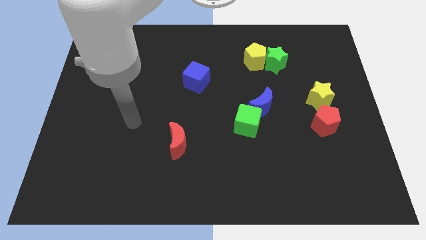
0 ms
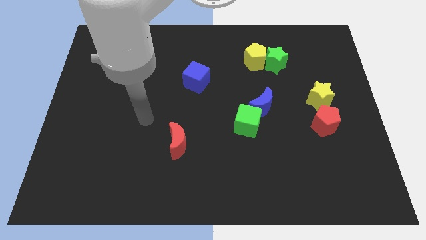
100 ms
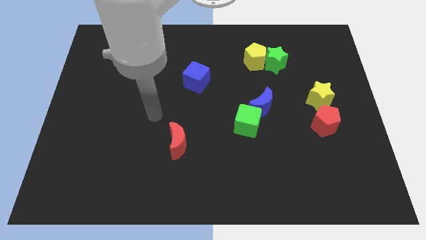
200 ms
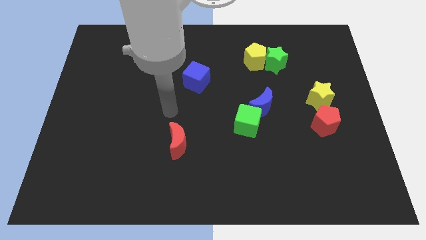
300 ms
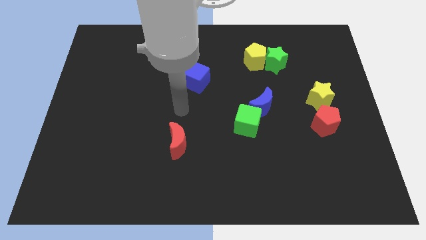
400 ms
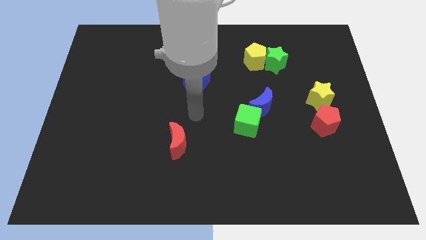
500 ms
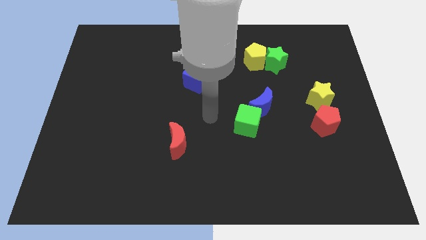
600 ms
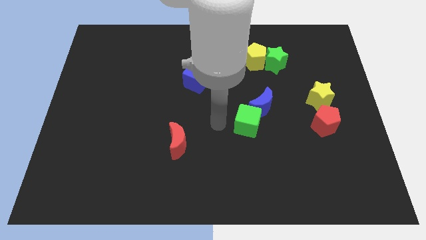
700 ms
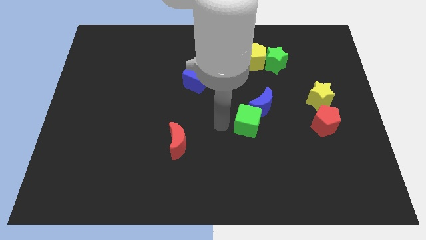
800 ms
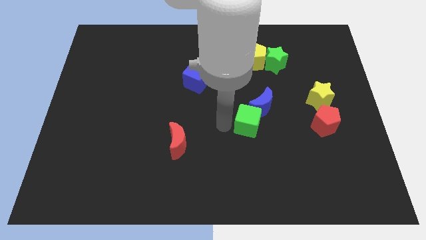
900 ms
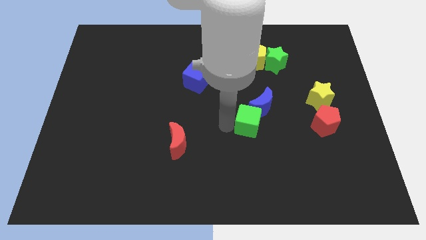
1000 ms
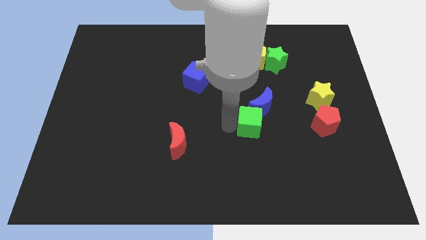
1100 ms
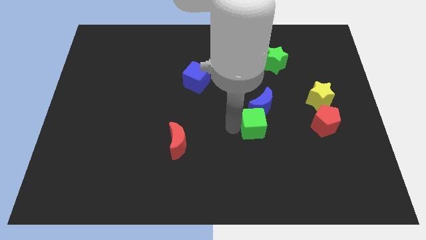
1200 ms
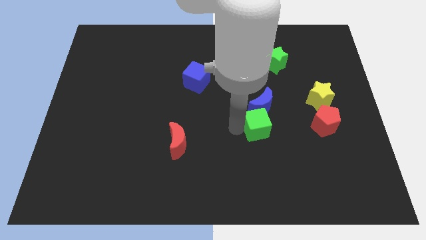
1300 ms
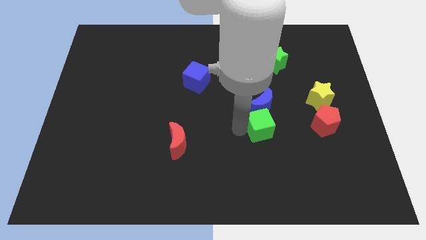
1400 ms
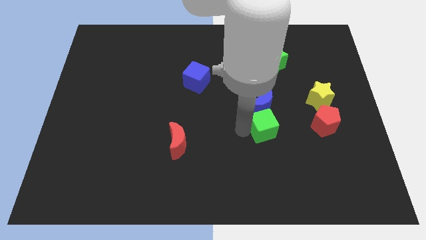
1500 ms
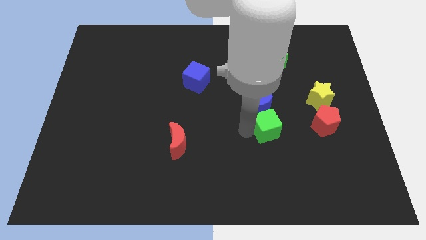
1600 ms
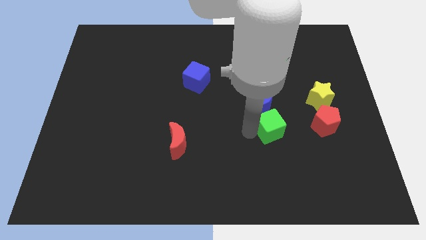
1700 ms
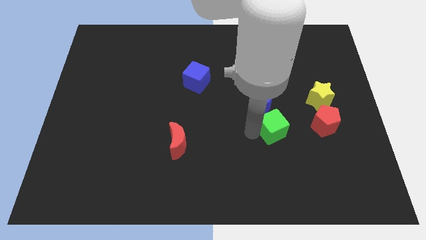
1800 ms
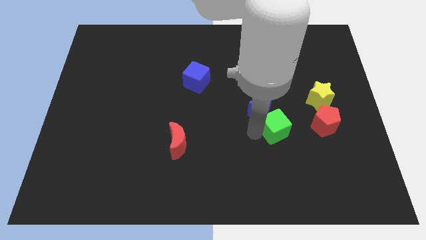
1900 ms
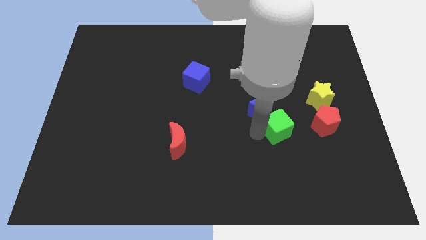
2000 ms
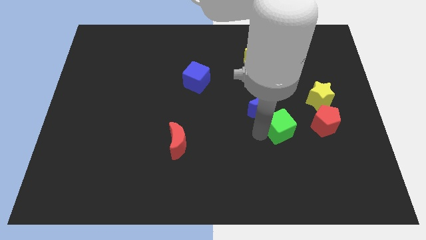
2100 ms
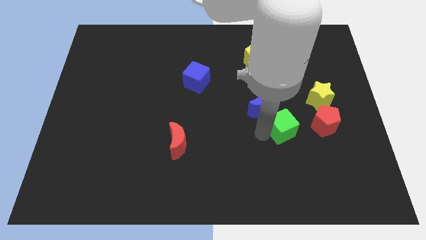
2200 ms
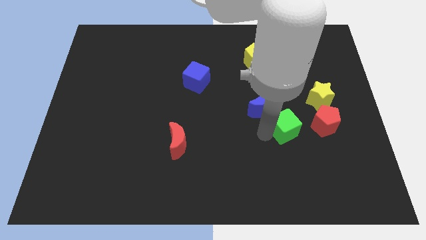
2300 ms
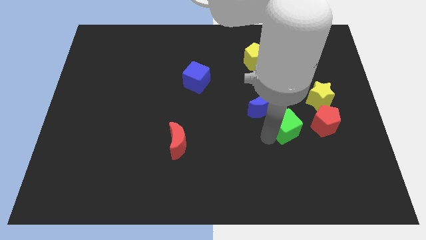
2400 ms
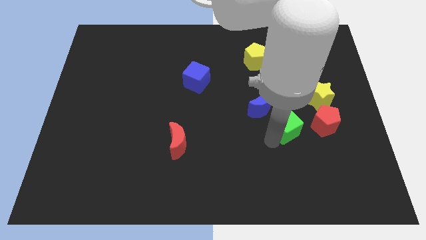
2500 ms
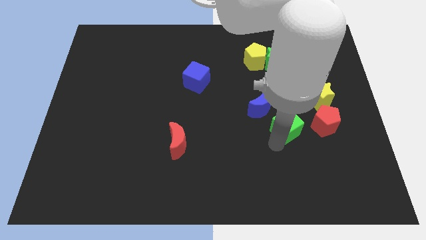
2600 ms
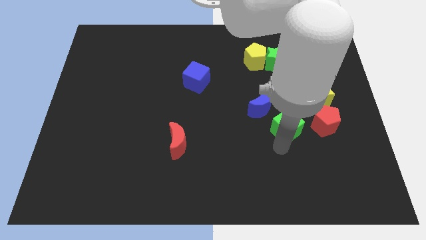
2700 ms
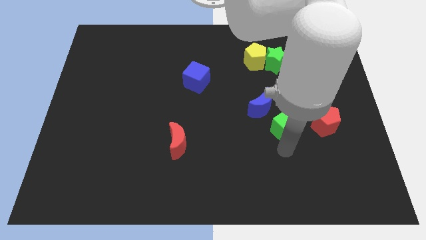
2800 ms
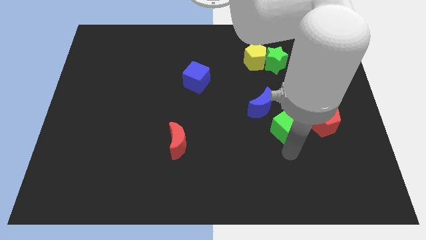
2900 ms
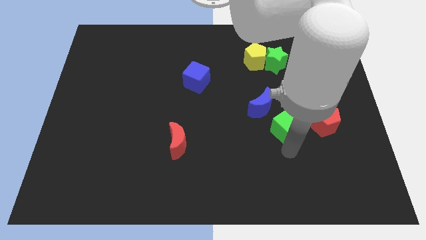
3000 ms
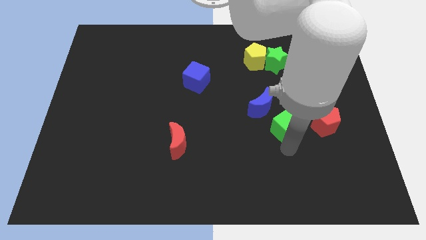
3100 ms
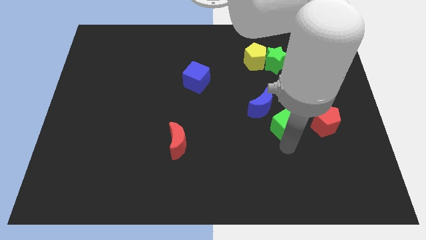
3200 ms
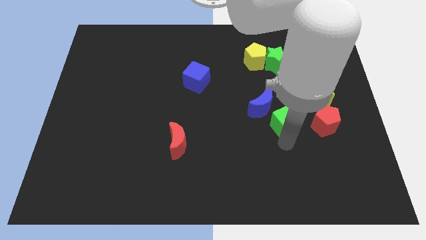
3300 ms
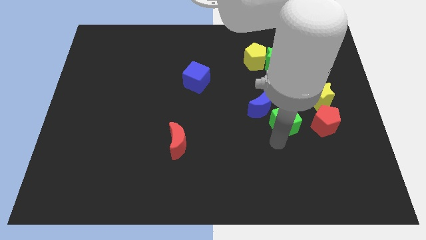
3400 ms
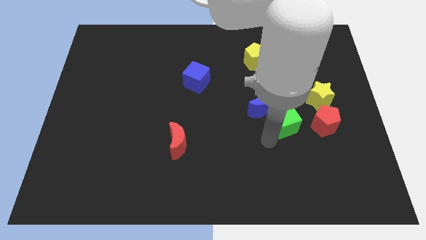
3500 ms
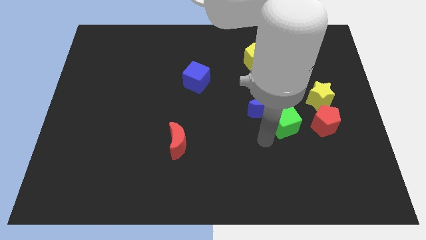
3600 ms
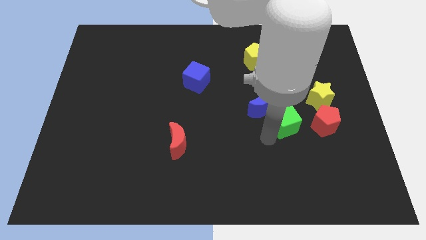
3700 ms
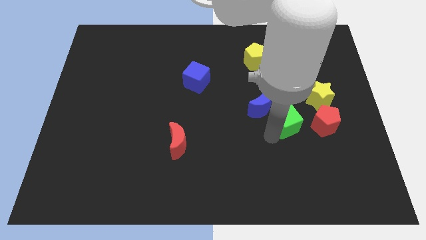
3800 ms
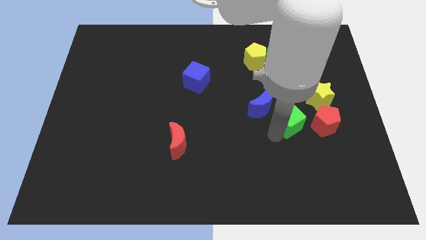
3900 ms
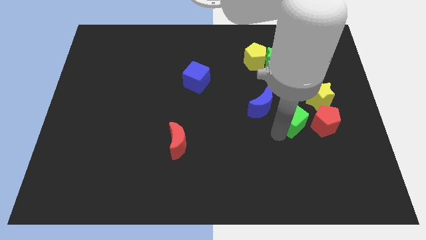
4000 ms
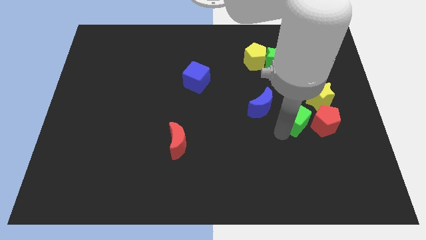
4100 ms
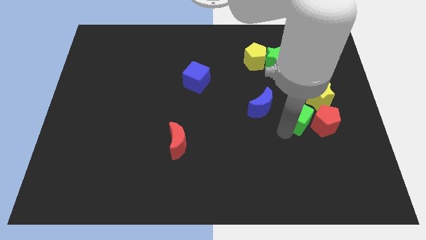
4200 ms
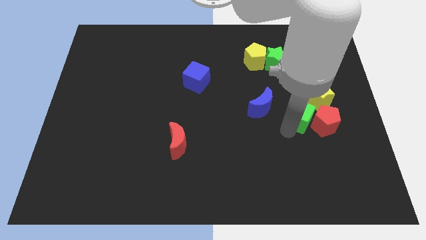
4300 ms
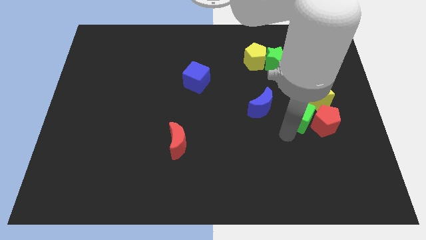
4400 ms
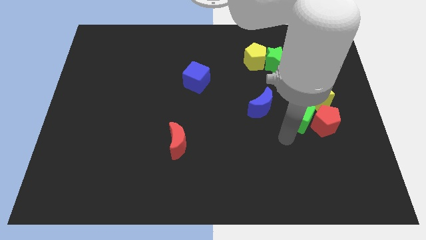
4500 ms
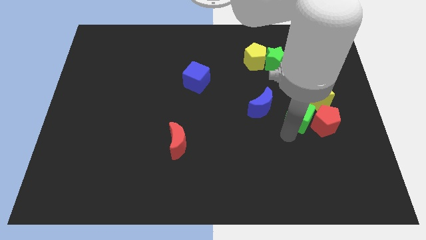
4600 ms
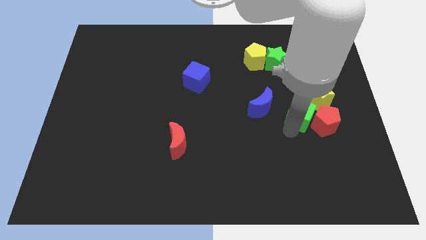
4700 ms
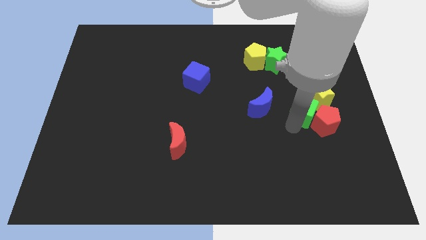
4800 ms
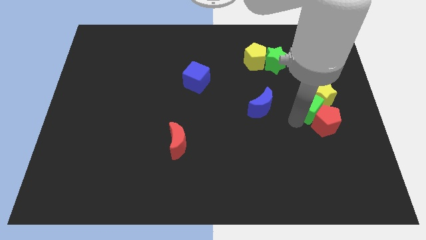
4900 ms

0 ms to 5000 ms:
slide the green cube close to the yellow star

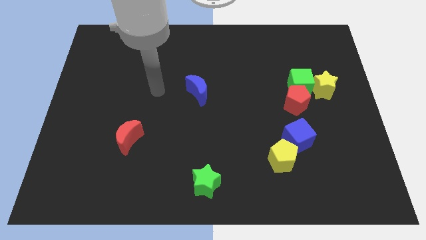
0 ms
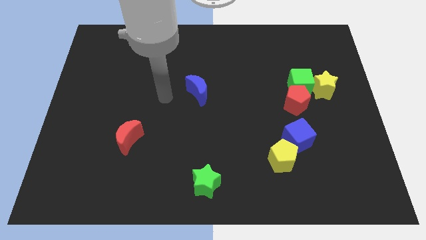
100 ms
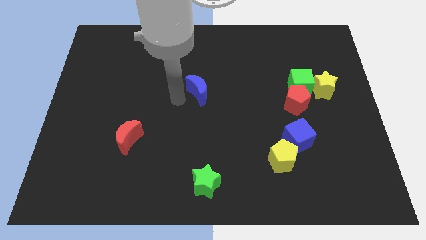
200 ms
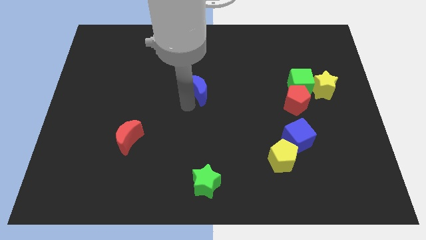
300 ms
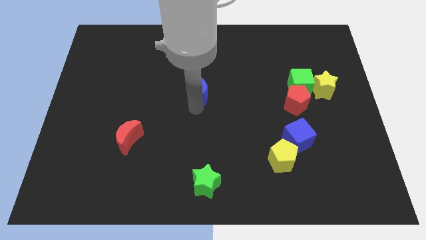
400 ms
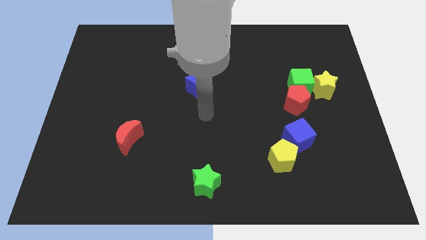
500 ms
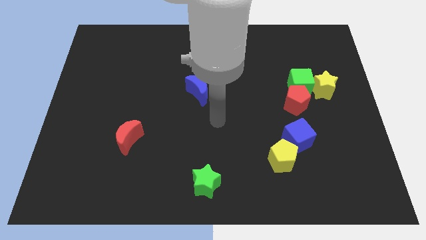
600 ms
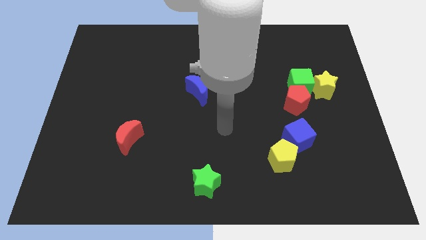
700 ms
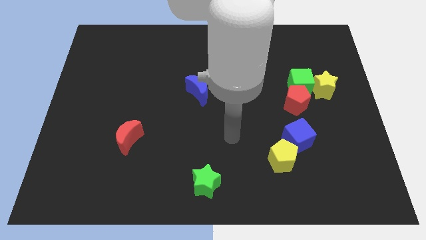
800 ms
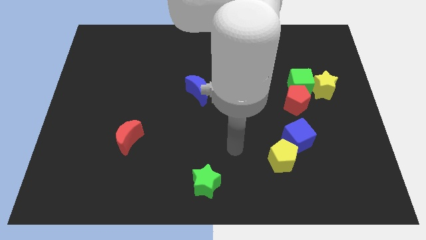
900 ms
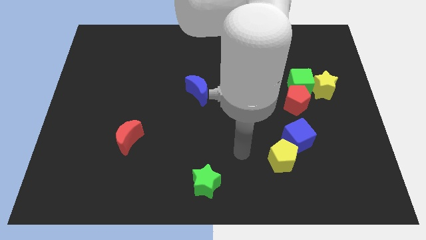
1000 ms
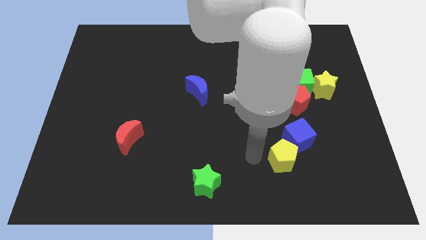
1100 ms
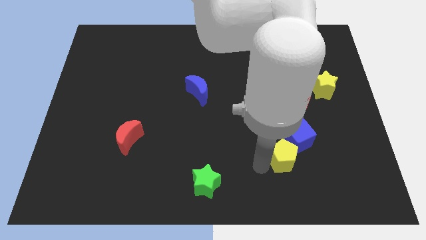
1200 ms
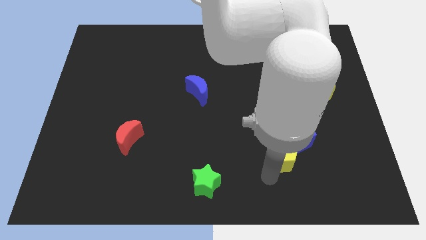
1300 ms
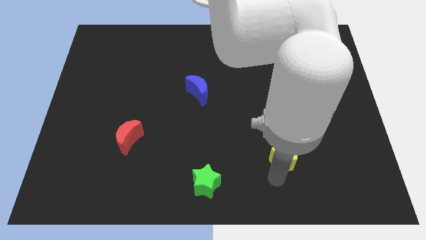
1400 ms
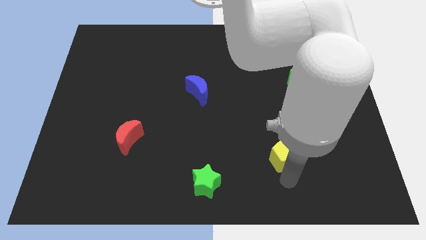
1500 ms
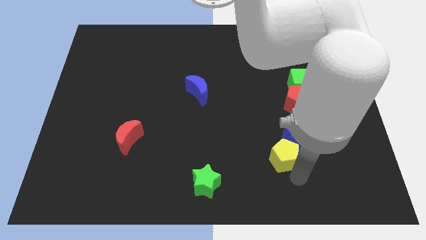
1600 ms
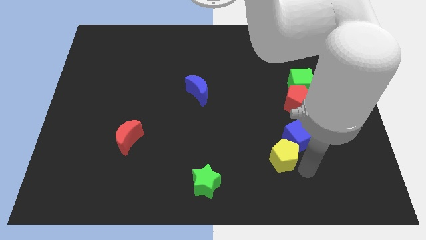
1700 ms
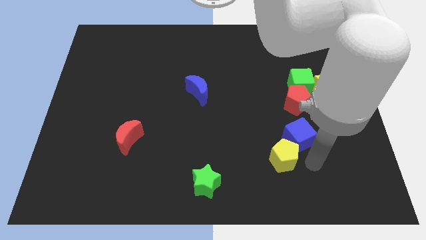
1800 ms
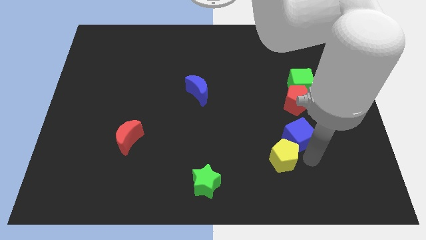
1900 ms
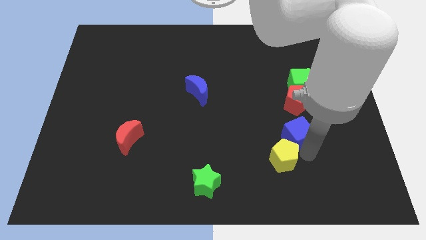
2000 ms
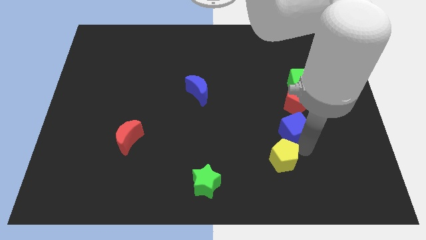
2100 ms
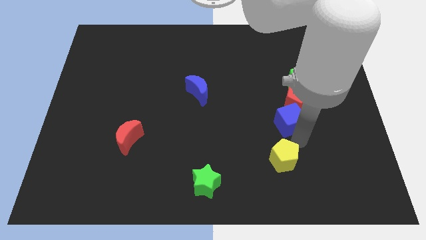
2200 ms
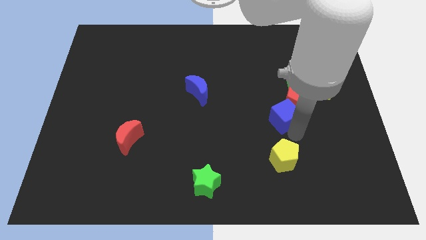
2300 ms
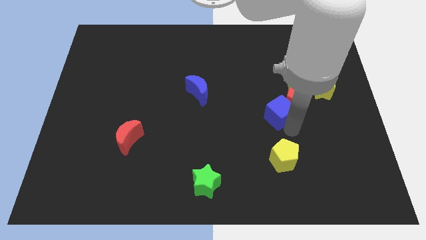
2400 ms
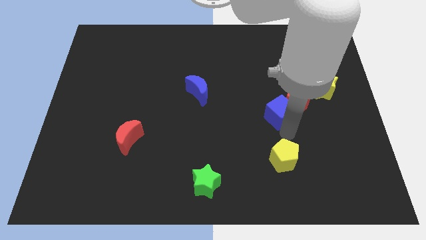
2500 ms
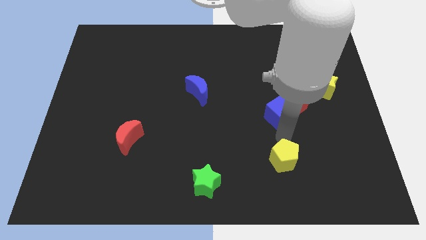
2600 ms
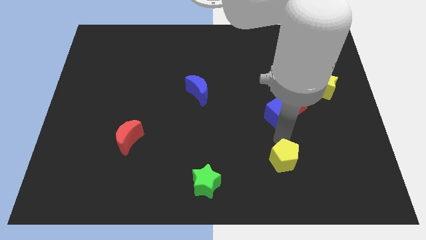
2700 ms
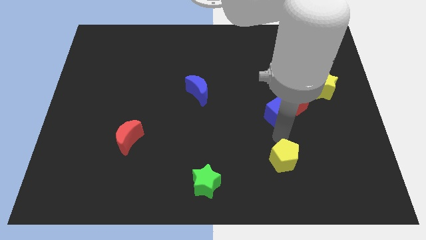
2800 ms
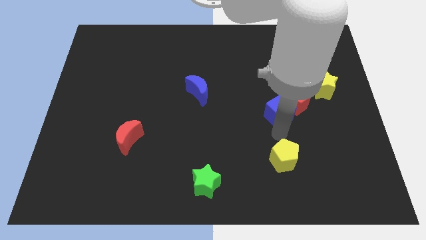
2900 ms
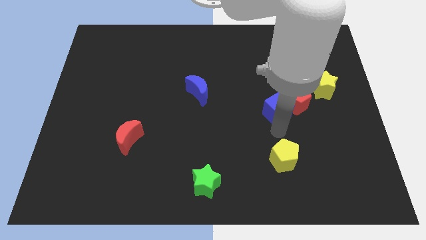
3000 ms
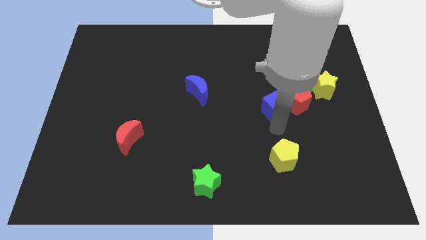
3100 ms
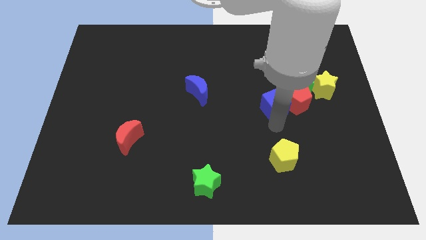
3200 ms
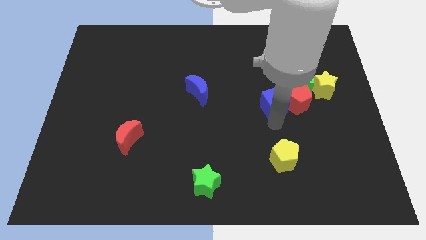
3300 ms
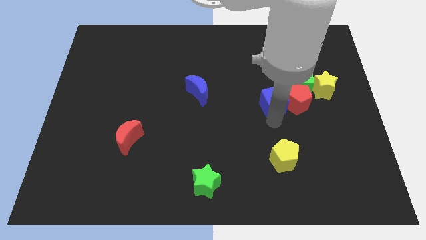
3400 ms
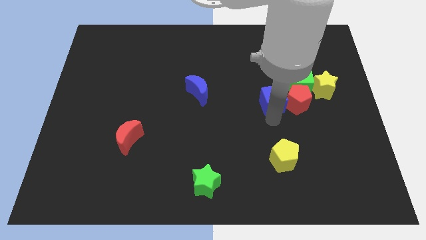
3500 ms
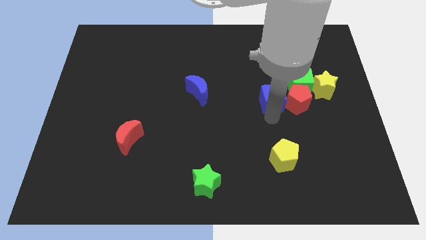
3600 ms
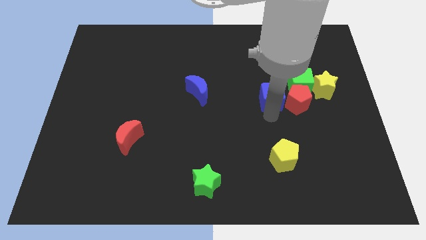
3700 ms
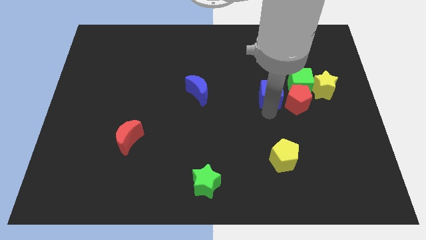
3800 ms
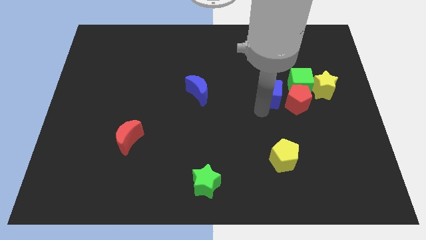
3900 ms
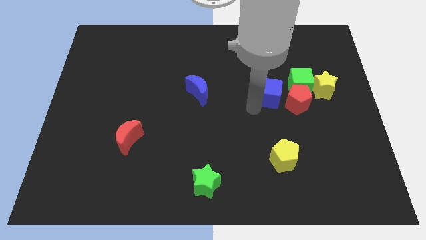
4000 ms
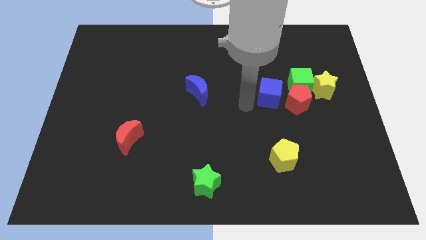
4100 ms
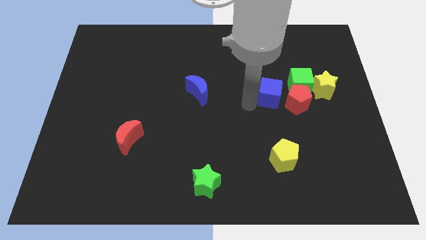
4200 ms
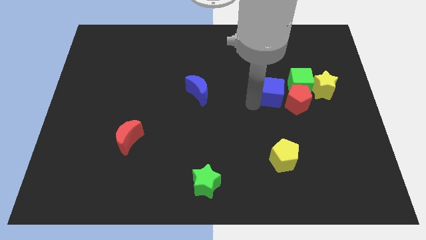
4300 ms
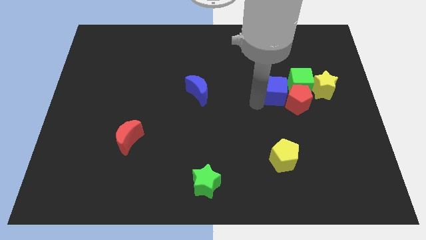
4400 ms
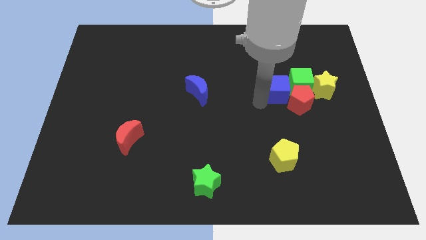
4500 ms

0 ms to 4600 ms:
push the blue cube close to the green cube
